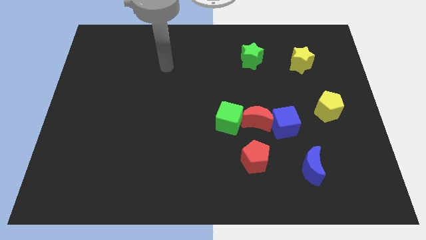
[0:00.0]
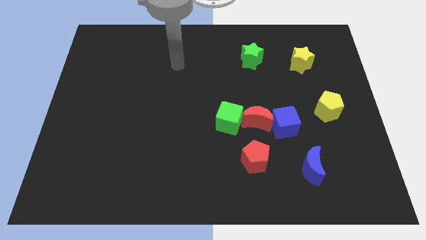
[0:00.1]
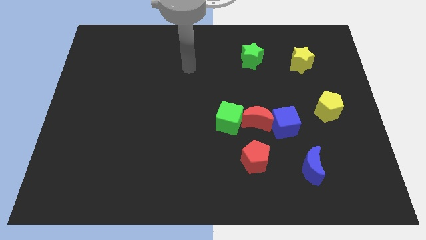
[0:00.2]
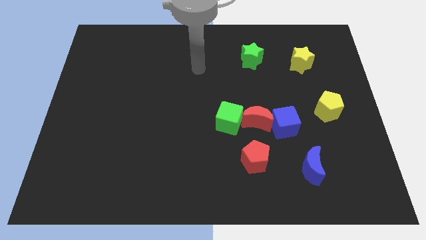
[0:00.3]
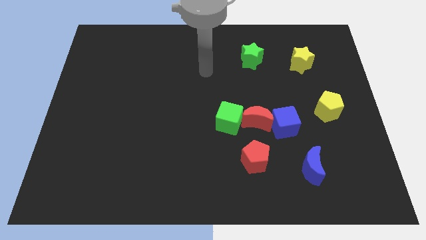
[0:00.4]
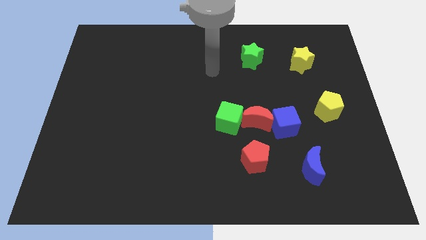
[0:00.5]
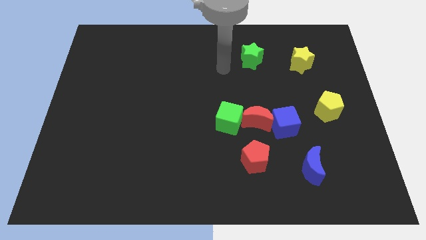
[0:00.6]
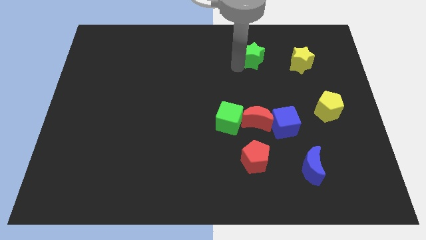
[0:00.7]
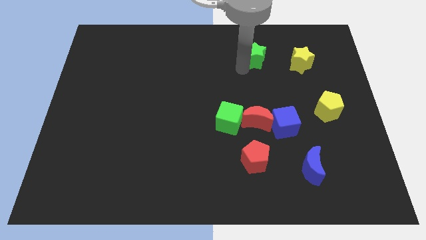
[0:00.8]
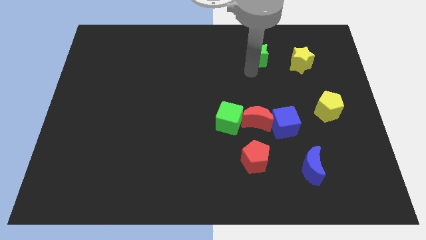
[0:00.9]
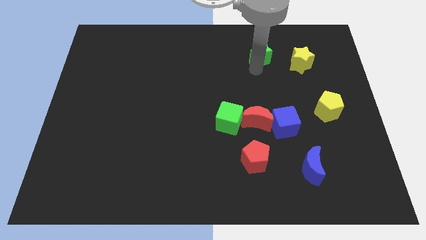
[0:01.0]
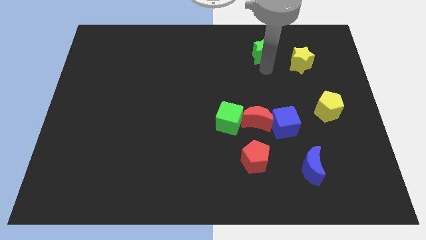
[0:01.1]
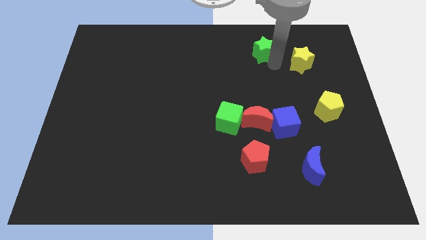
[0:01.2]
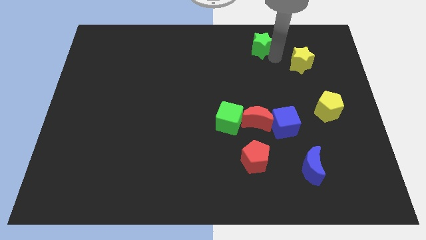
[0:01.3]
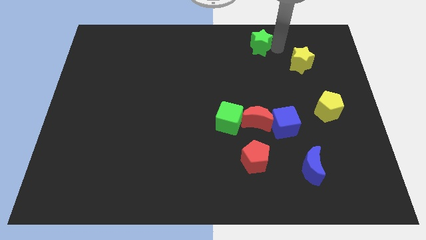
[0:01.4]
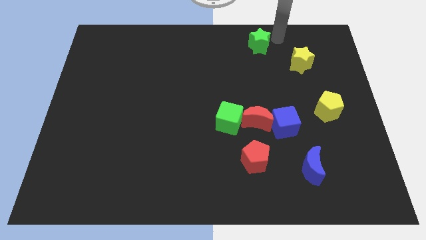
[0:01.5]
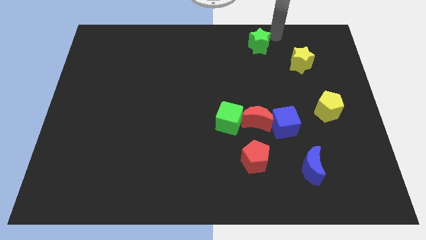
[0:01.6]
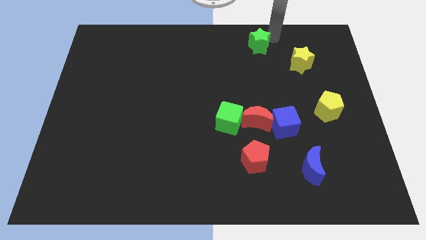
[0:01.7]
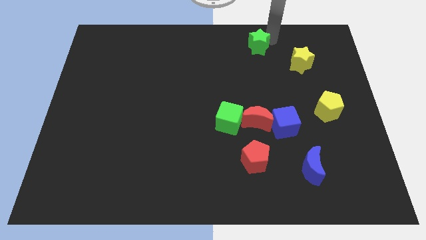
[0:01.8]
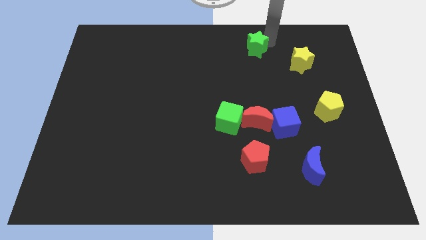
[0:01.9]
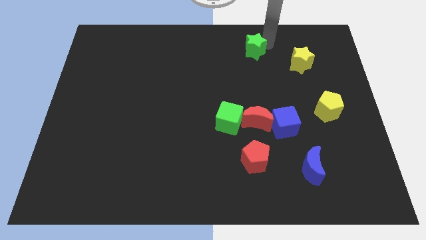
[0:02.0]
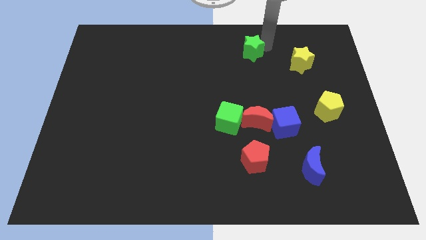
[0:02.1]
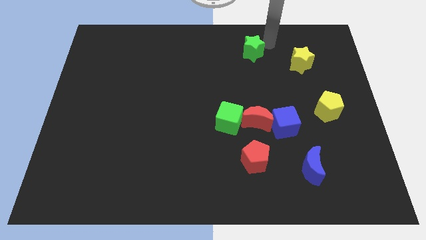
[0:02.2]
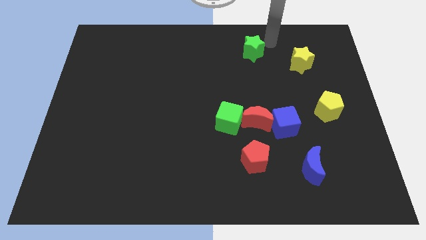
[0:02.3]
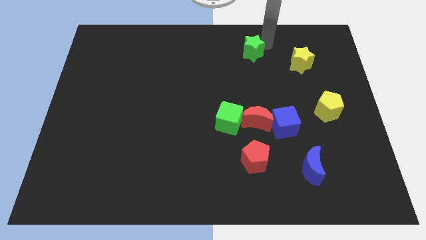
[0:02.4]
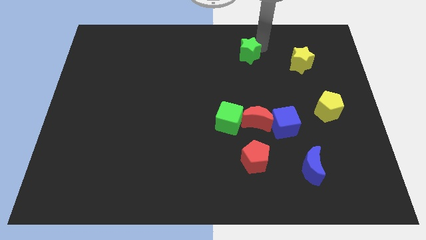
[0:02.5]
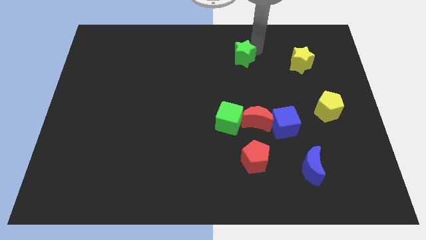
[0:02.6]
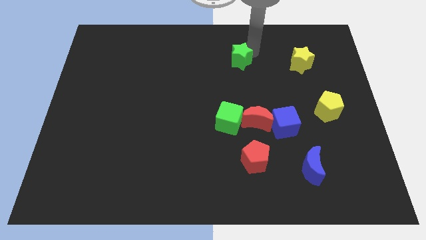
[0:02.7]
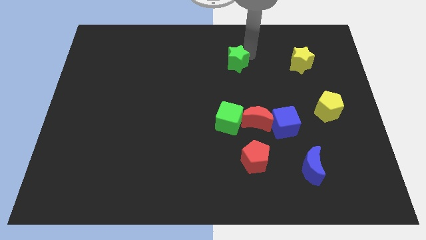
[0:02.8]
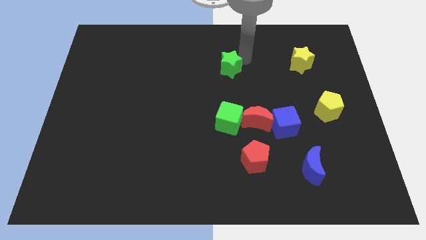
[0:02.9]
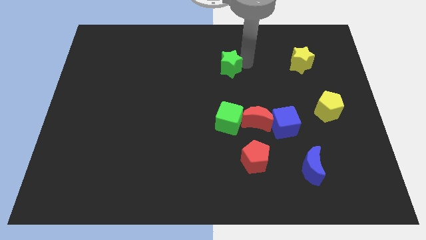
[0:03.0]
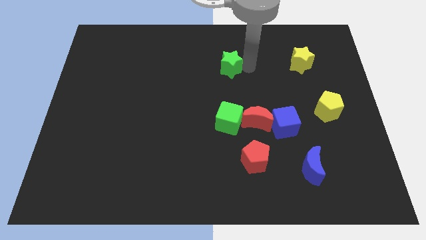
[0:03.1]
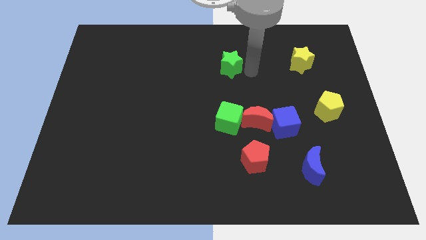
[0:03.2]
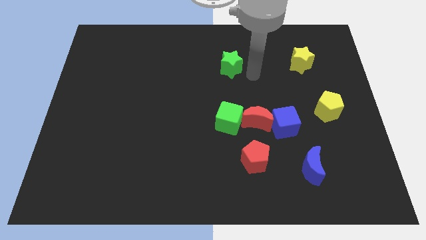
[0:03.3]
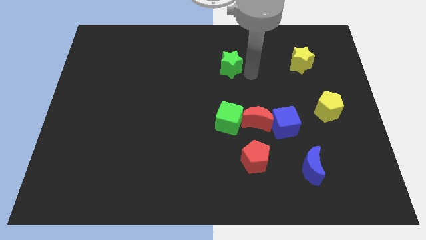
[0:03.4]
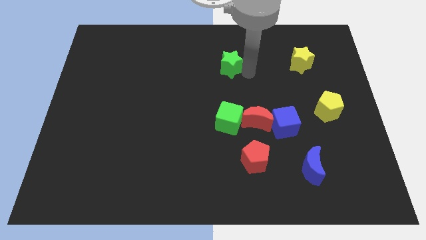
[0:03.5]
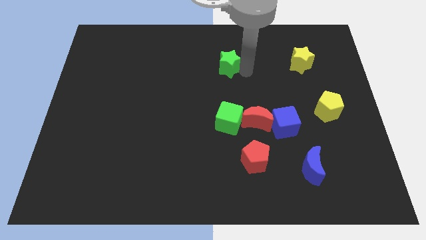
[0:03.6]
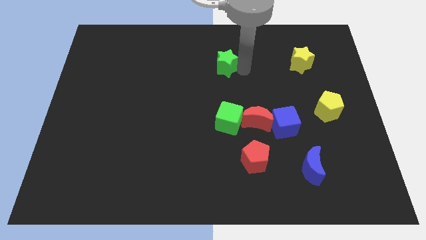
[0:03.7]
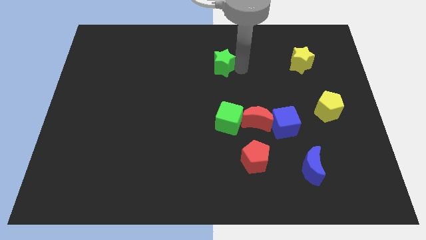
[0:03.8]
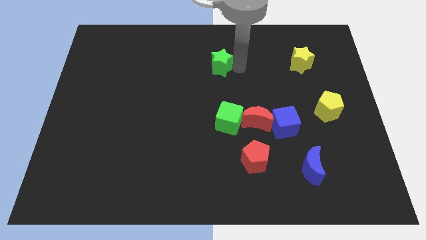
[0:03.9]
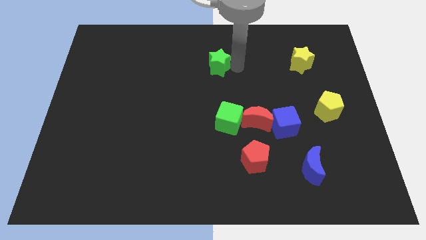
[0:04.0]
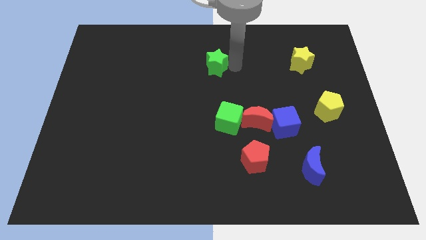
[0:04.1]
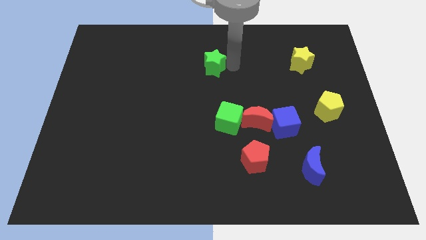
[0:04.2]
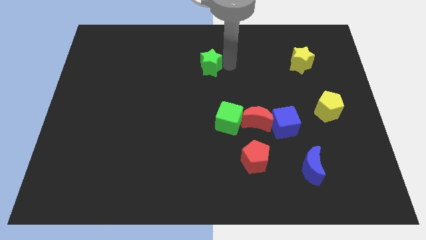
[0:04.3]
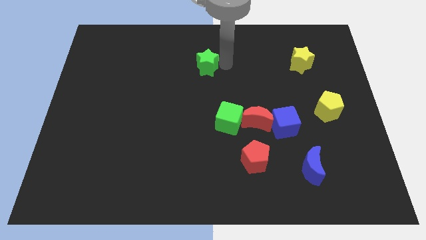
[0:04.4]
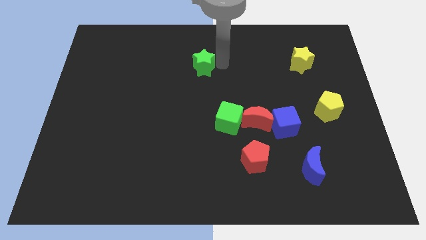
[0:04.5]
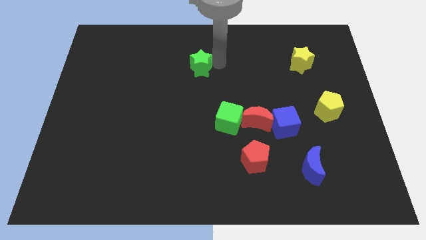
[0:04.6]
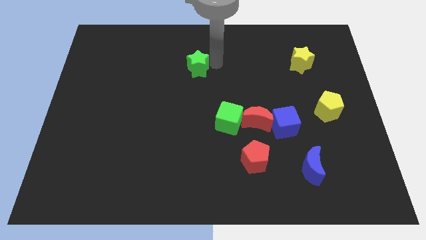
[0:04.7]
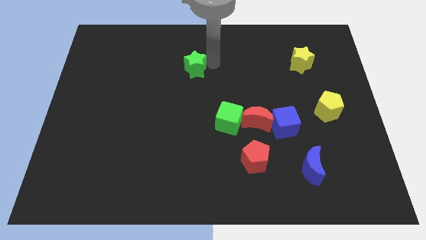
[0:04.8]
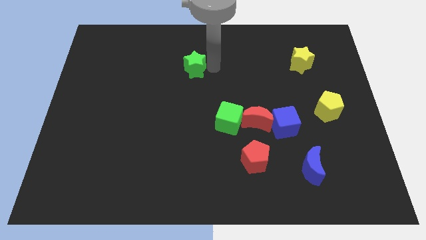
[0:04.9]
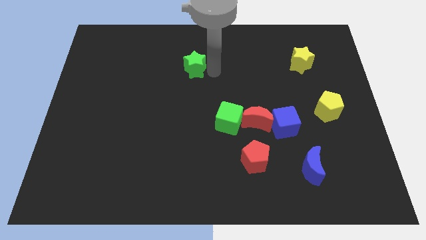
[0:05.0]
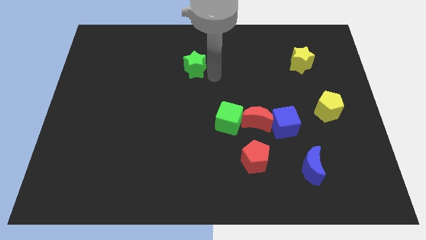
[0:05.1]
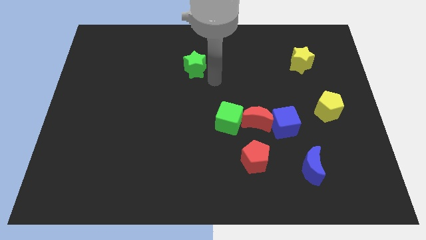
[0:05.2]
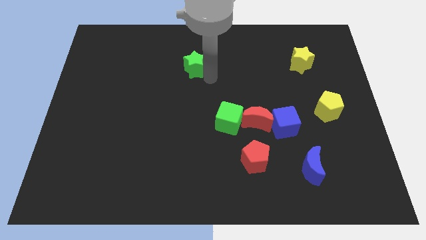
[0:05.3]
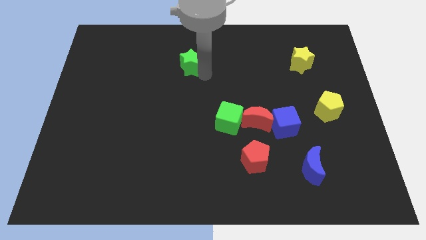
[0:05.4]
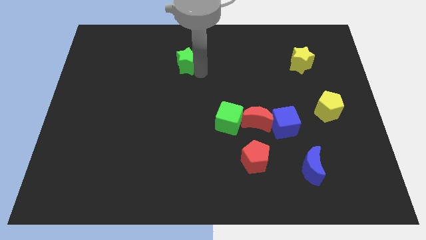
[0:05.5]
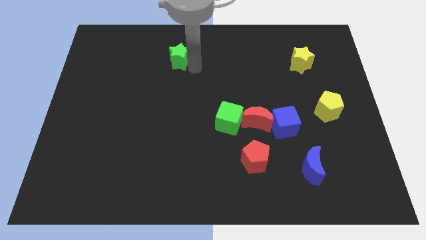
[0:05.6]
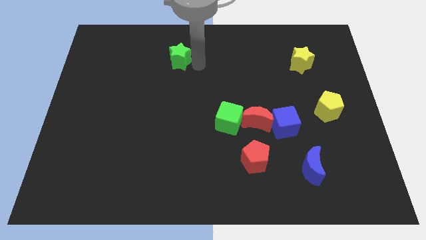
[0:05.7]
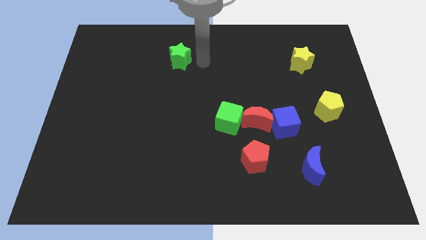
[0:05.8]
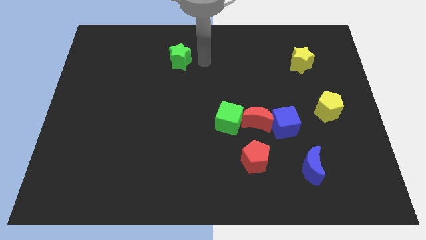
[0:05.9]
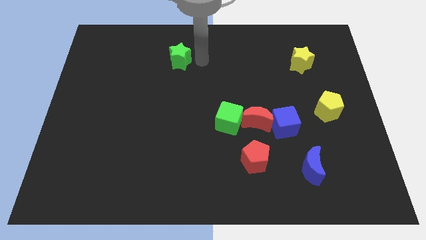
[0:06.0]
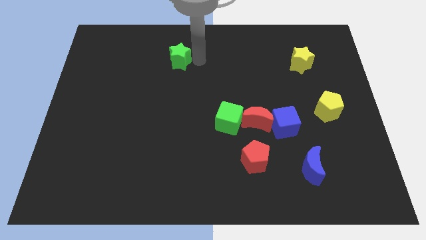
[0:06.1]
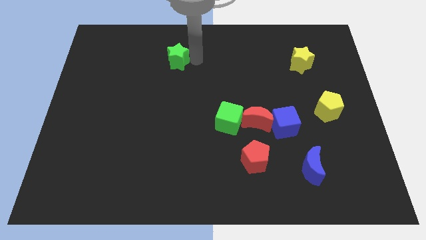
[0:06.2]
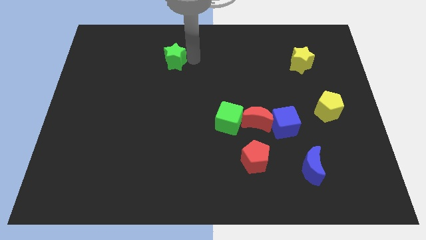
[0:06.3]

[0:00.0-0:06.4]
push the green star to the left

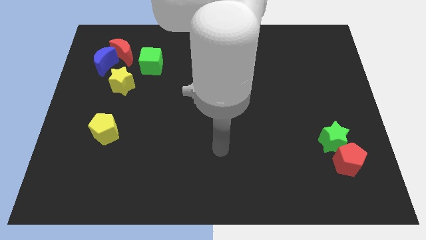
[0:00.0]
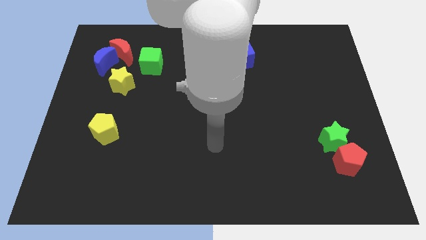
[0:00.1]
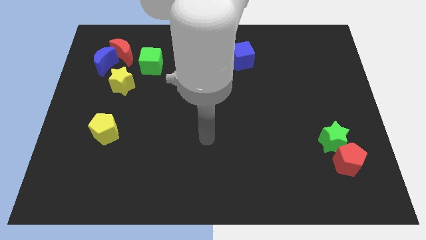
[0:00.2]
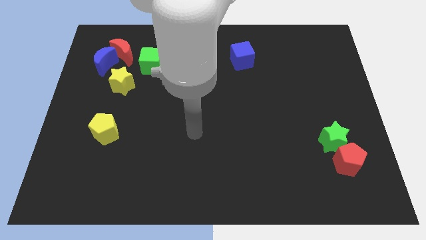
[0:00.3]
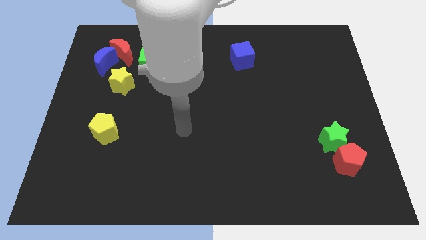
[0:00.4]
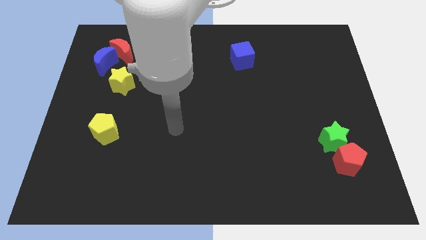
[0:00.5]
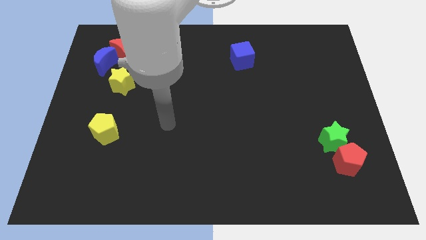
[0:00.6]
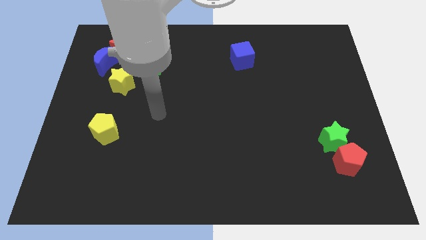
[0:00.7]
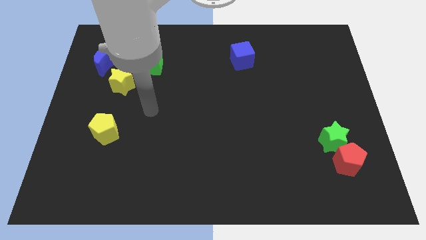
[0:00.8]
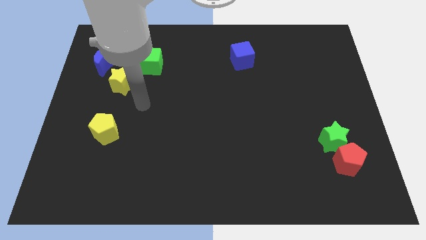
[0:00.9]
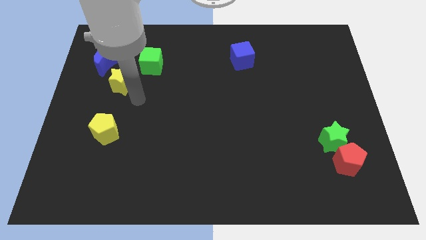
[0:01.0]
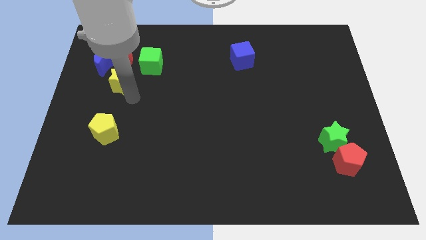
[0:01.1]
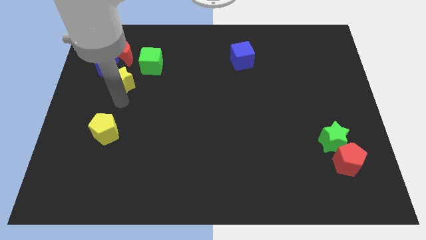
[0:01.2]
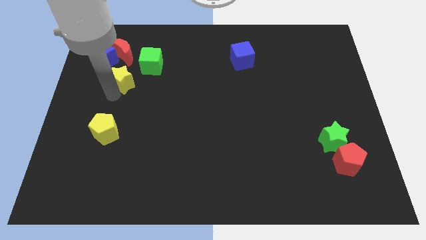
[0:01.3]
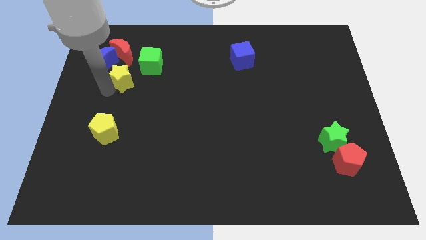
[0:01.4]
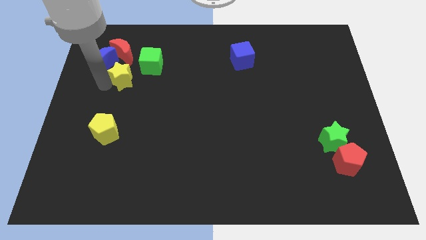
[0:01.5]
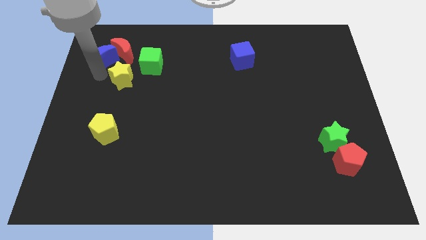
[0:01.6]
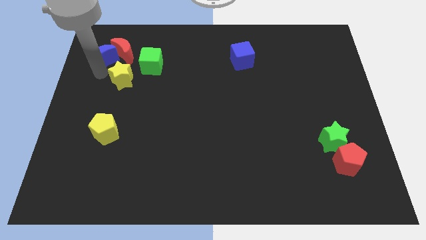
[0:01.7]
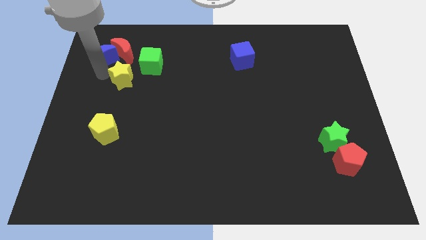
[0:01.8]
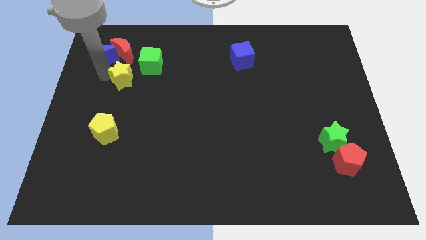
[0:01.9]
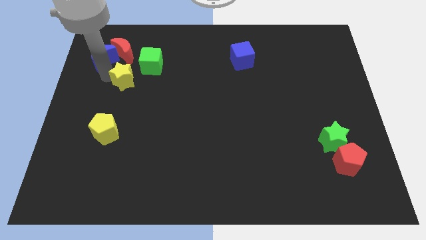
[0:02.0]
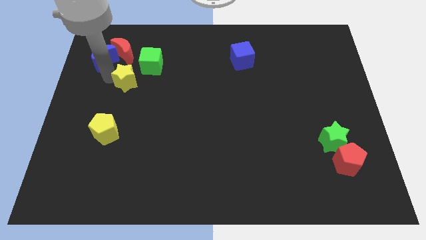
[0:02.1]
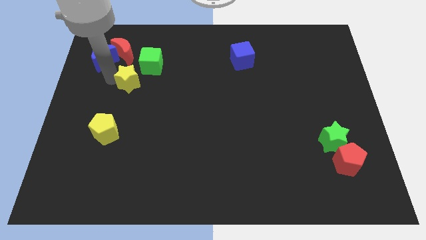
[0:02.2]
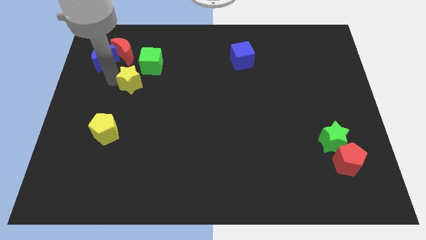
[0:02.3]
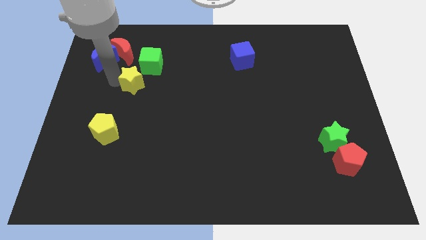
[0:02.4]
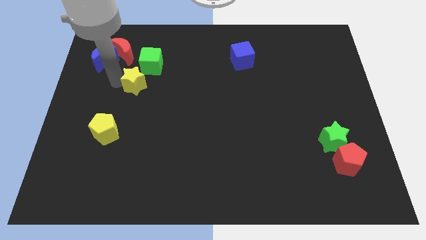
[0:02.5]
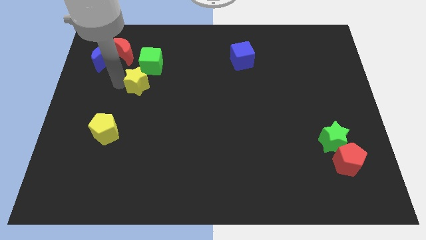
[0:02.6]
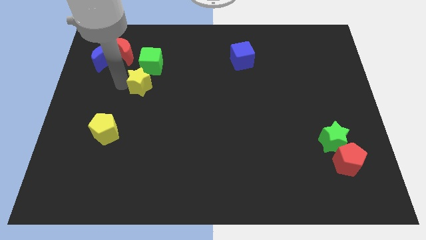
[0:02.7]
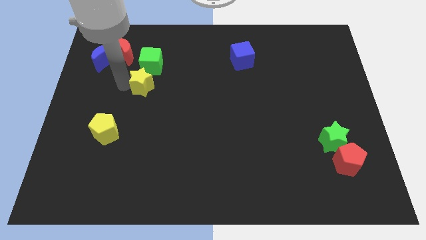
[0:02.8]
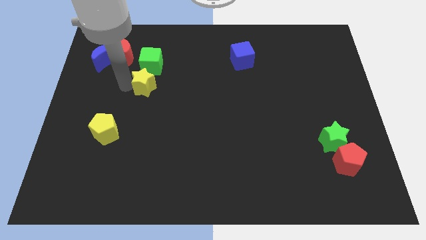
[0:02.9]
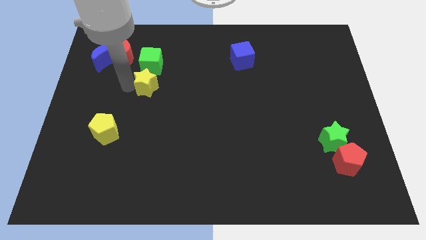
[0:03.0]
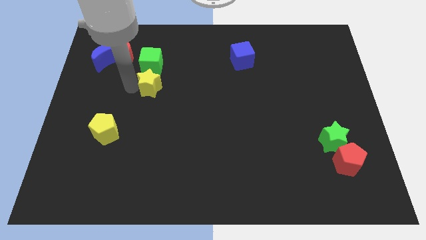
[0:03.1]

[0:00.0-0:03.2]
slightly push the yellow star right
